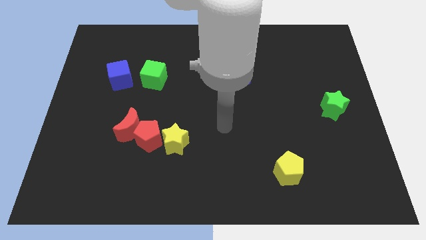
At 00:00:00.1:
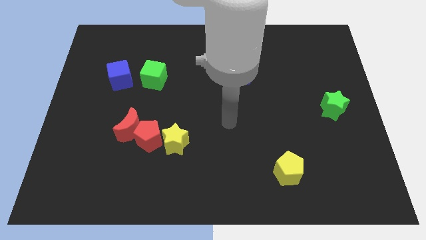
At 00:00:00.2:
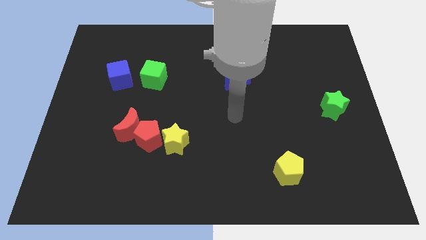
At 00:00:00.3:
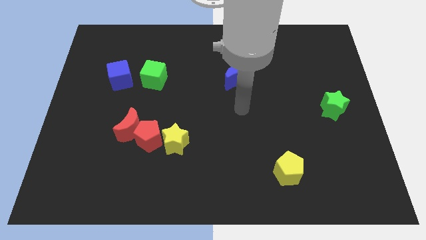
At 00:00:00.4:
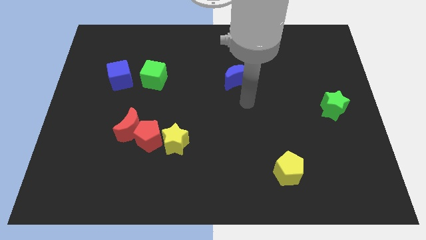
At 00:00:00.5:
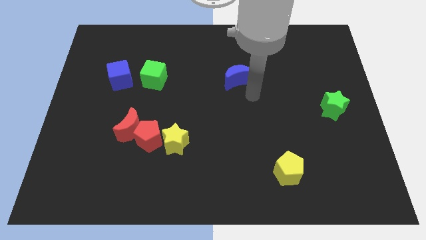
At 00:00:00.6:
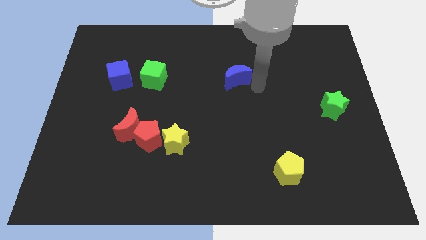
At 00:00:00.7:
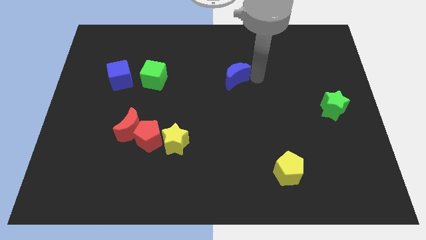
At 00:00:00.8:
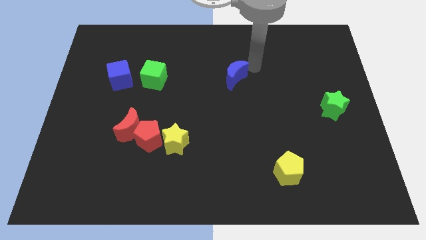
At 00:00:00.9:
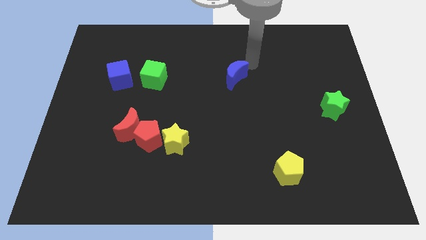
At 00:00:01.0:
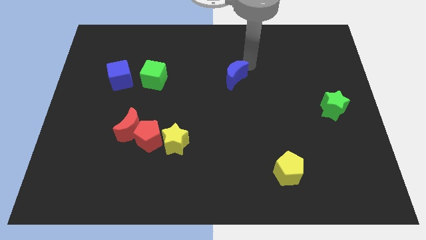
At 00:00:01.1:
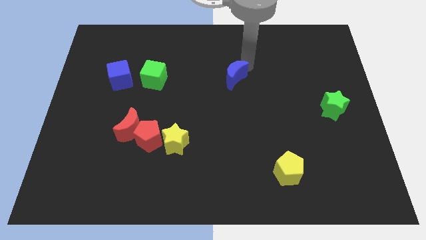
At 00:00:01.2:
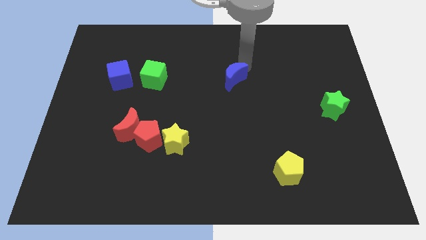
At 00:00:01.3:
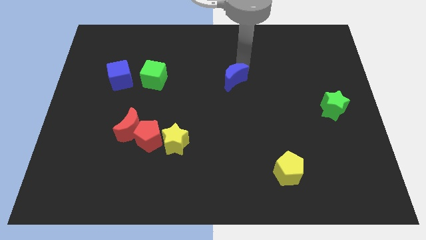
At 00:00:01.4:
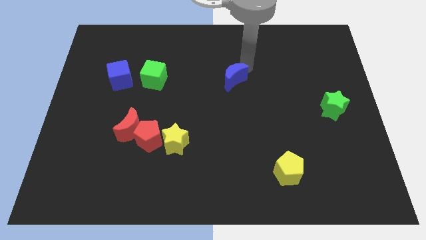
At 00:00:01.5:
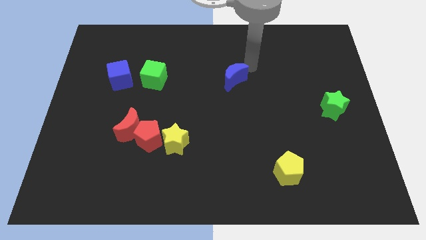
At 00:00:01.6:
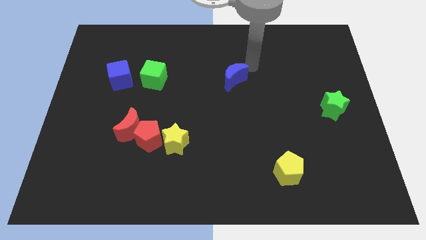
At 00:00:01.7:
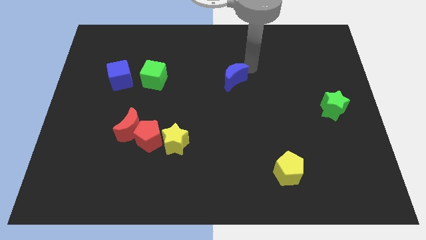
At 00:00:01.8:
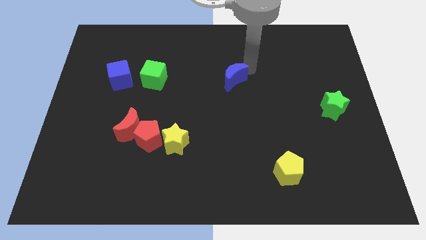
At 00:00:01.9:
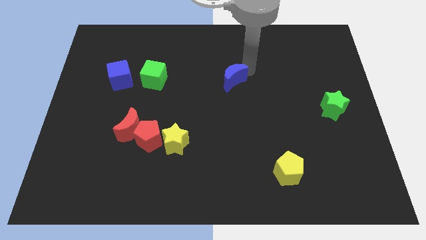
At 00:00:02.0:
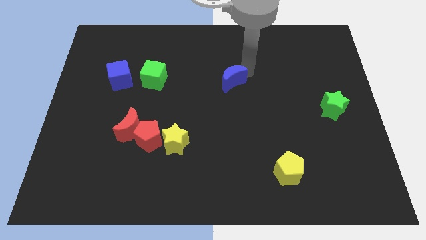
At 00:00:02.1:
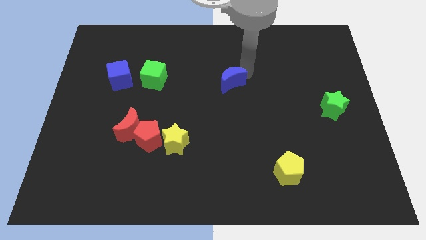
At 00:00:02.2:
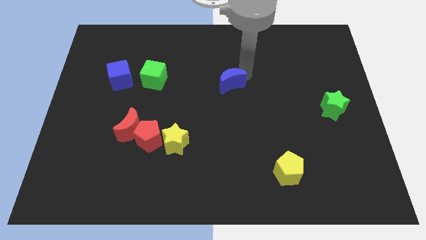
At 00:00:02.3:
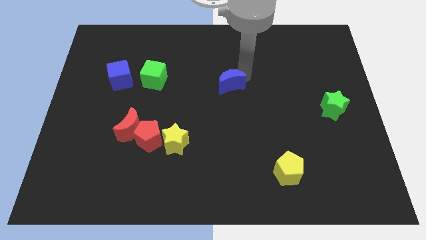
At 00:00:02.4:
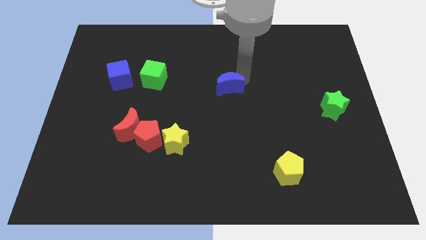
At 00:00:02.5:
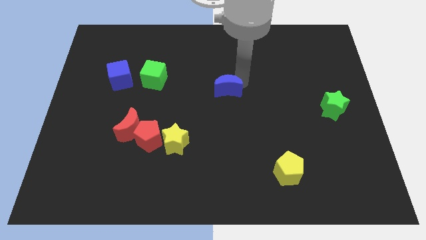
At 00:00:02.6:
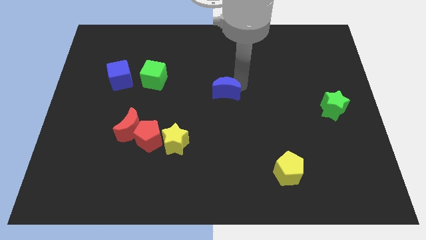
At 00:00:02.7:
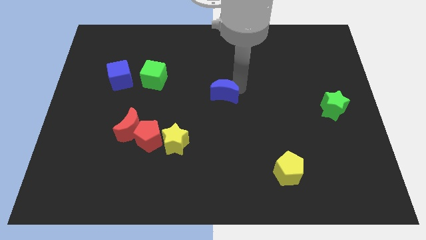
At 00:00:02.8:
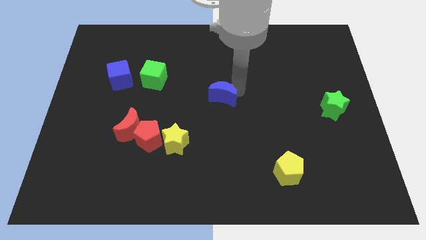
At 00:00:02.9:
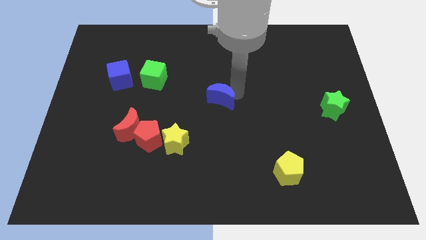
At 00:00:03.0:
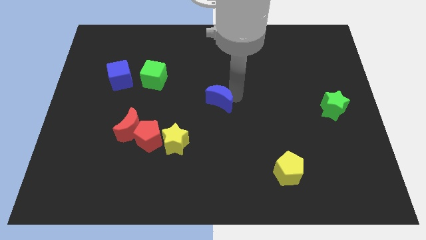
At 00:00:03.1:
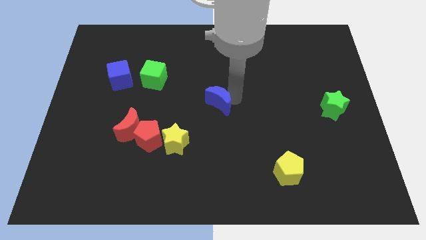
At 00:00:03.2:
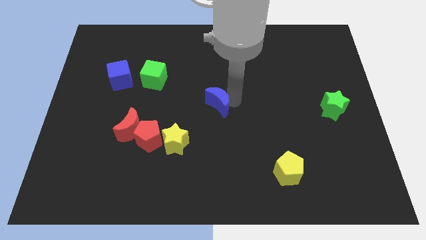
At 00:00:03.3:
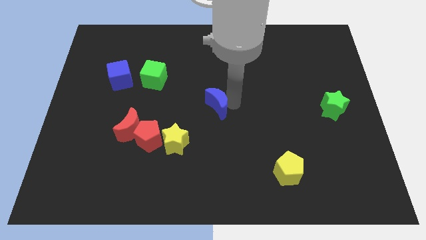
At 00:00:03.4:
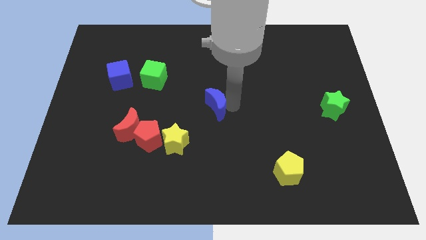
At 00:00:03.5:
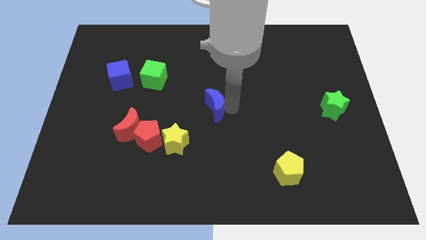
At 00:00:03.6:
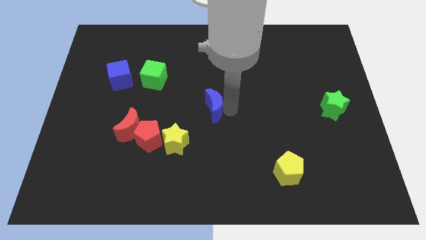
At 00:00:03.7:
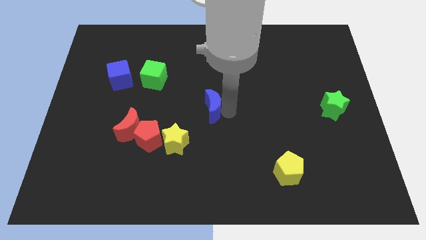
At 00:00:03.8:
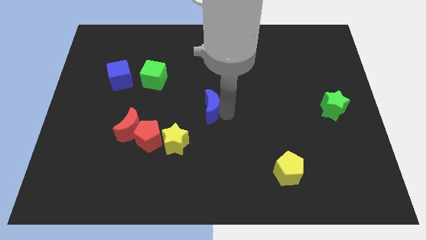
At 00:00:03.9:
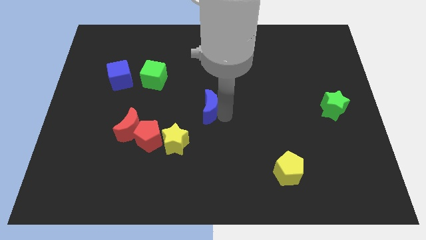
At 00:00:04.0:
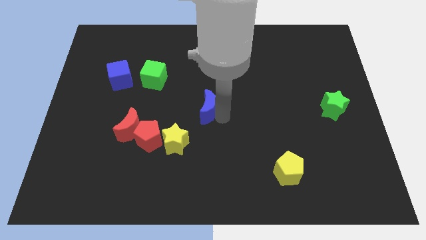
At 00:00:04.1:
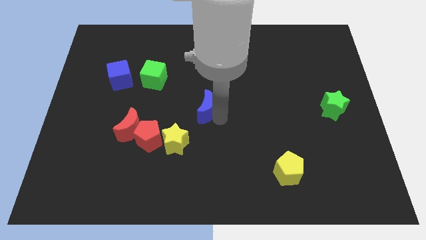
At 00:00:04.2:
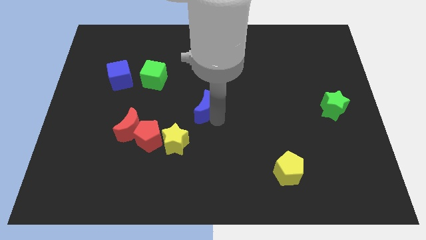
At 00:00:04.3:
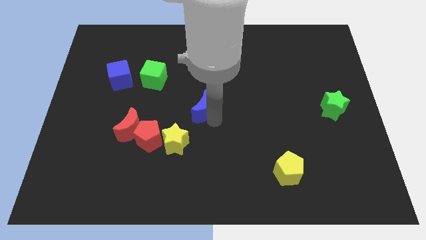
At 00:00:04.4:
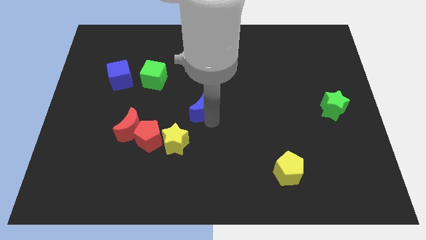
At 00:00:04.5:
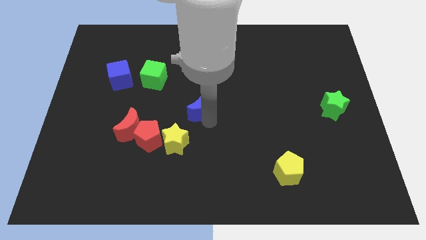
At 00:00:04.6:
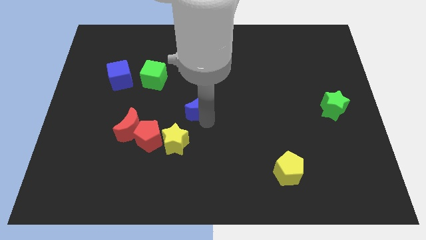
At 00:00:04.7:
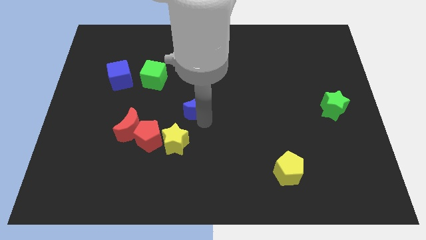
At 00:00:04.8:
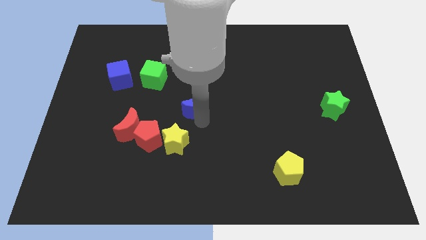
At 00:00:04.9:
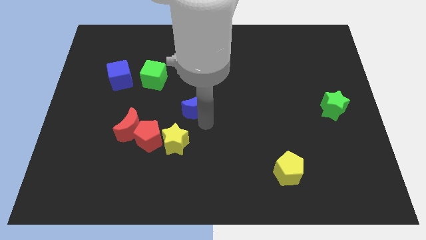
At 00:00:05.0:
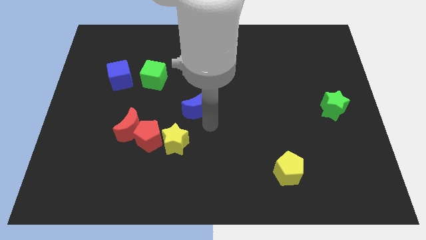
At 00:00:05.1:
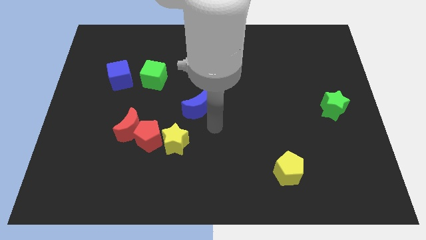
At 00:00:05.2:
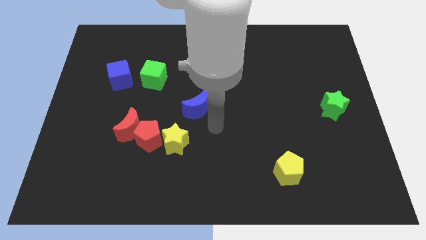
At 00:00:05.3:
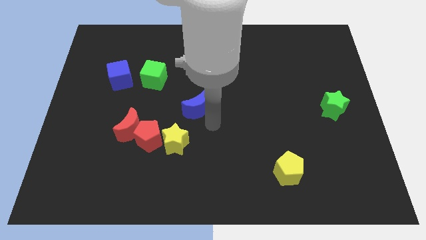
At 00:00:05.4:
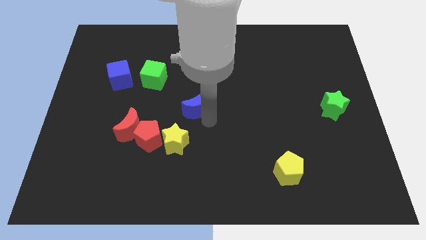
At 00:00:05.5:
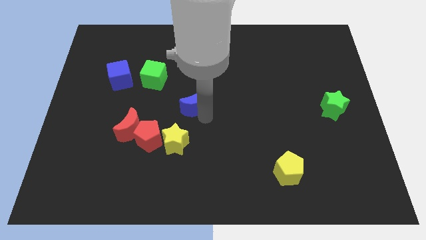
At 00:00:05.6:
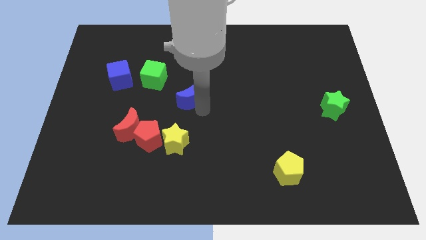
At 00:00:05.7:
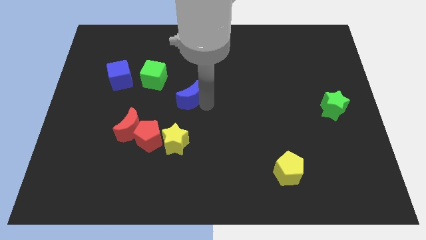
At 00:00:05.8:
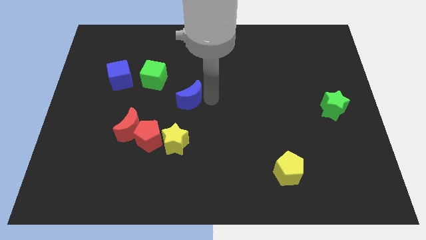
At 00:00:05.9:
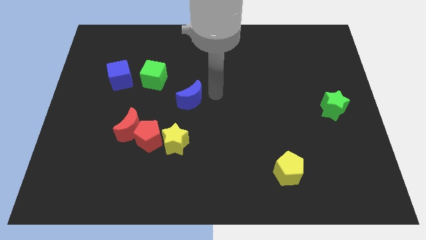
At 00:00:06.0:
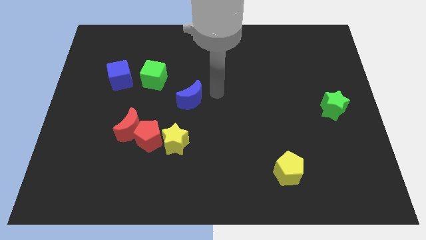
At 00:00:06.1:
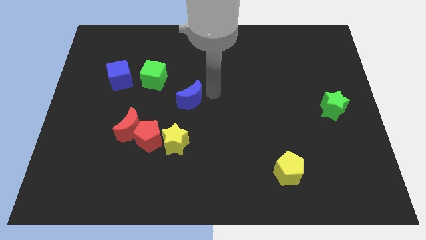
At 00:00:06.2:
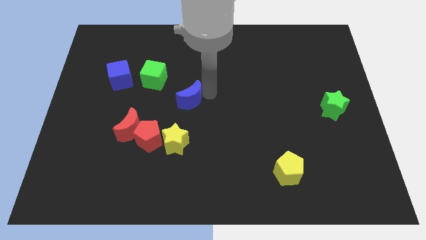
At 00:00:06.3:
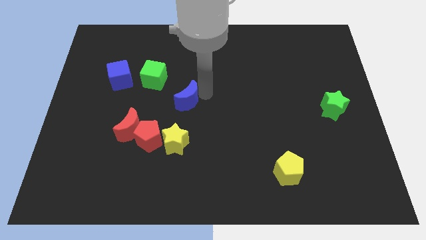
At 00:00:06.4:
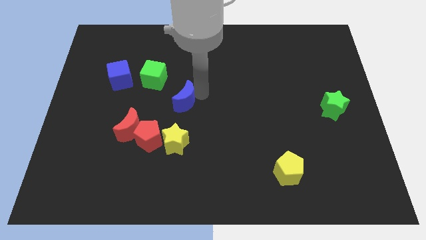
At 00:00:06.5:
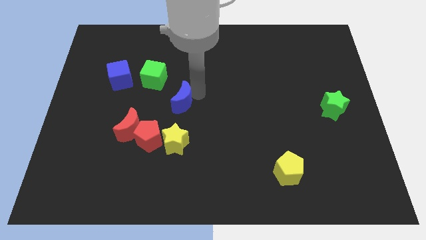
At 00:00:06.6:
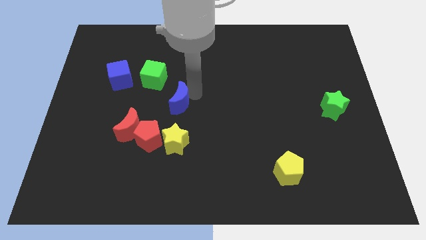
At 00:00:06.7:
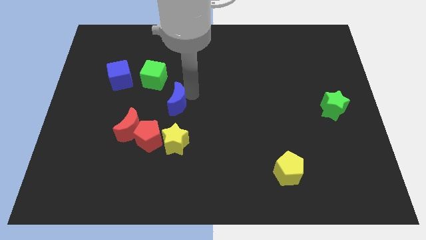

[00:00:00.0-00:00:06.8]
slide the blue moon to the top right of the red moon

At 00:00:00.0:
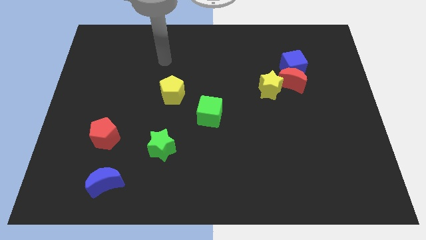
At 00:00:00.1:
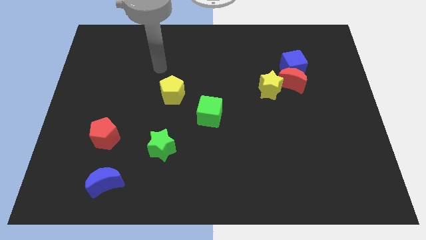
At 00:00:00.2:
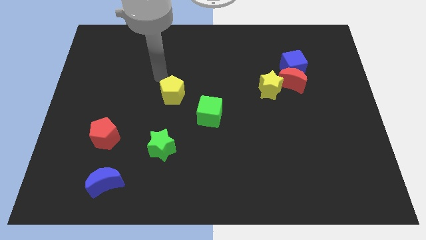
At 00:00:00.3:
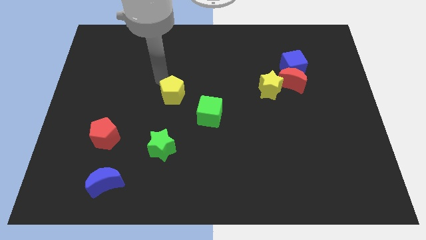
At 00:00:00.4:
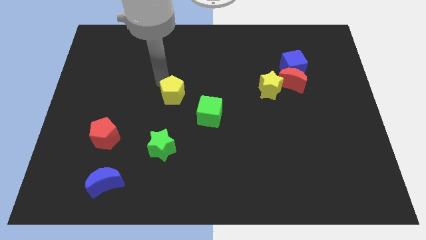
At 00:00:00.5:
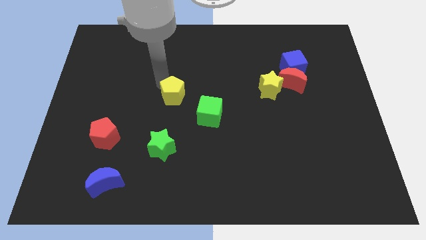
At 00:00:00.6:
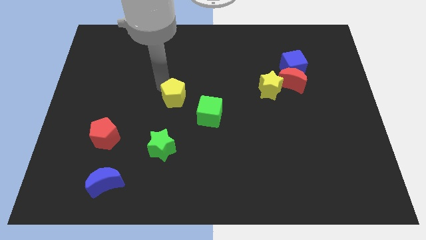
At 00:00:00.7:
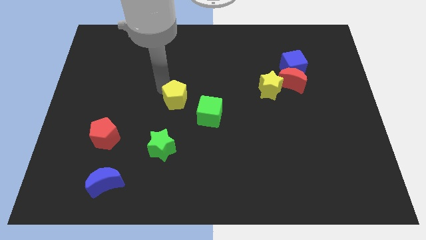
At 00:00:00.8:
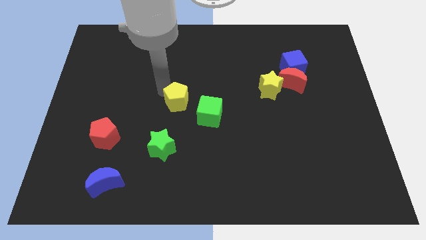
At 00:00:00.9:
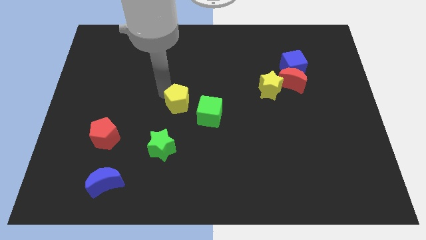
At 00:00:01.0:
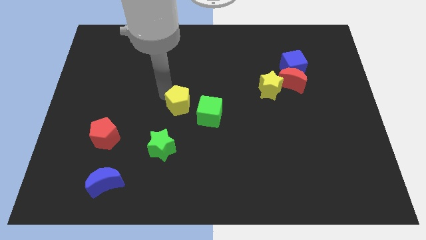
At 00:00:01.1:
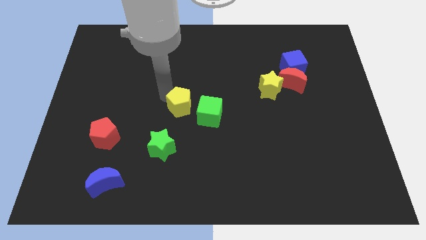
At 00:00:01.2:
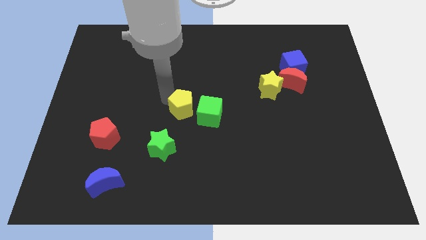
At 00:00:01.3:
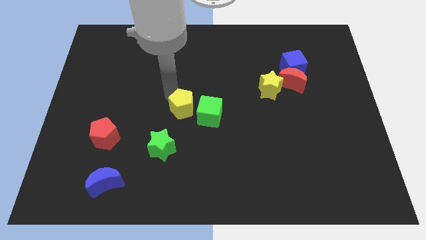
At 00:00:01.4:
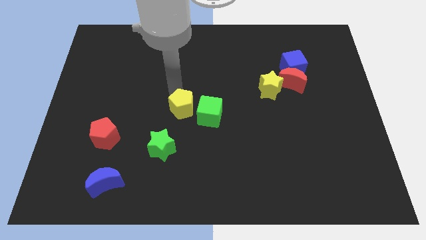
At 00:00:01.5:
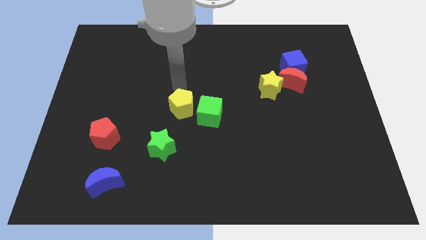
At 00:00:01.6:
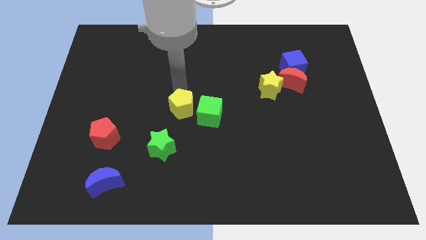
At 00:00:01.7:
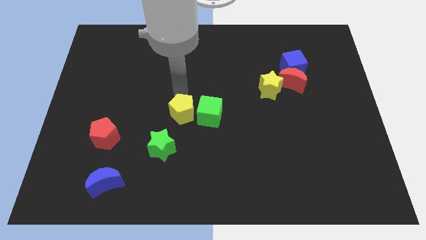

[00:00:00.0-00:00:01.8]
slide the yellow pentagon to the bottom left of the green cube
